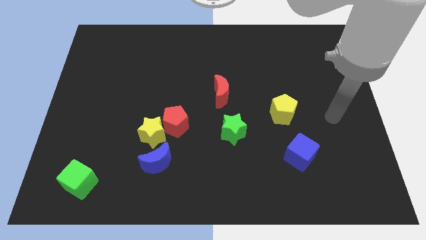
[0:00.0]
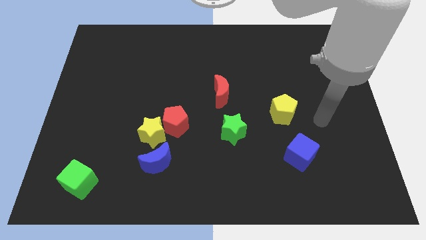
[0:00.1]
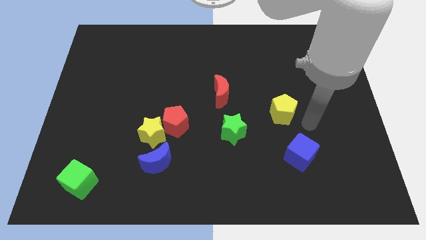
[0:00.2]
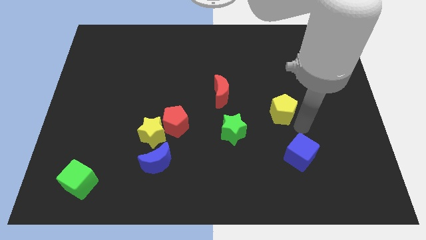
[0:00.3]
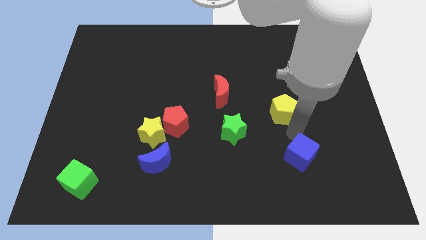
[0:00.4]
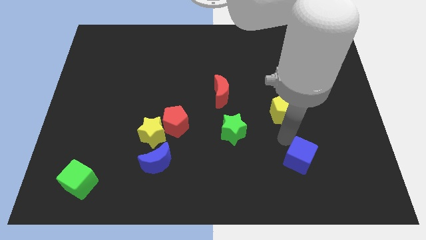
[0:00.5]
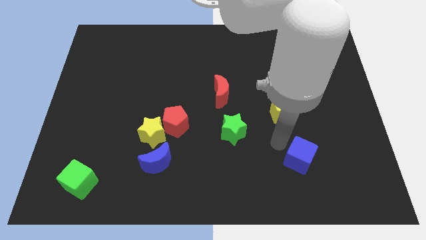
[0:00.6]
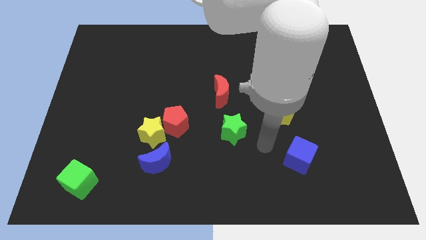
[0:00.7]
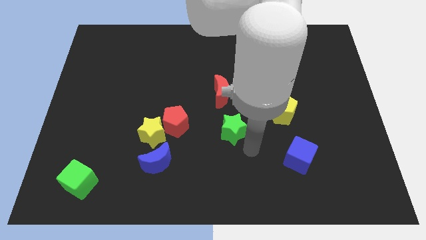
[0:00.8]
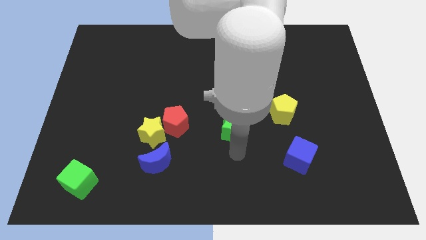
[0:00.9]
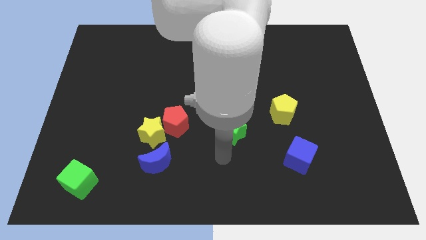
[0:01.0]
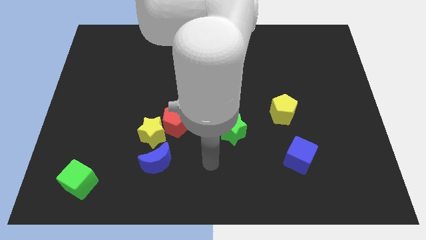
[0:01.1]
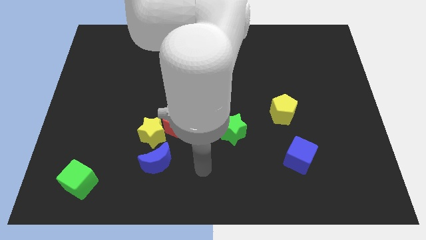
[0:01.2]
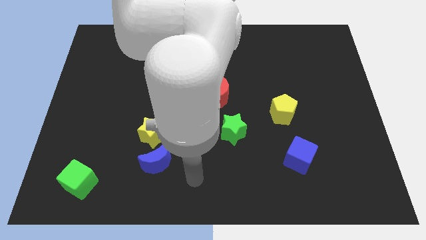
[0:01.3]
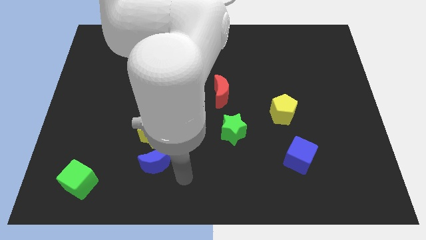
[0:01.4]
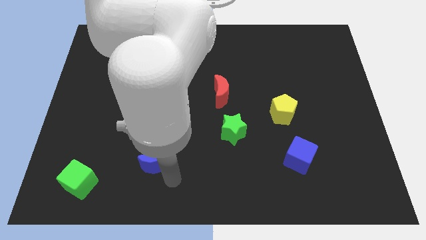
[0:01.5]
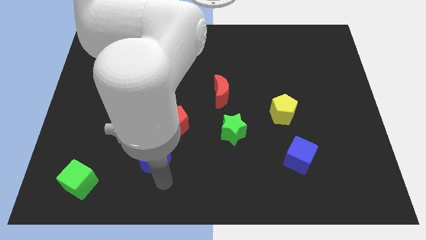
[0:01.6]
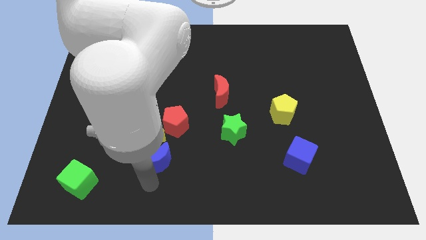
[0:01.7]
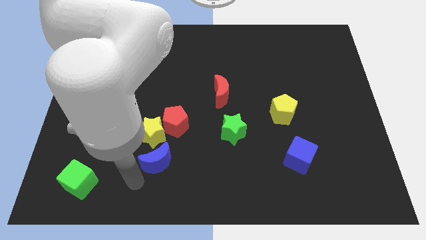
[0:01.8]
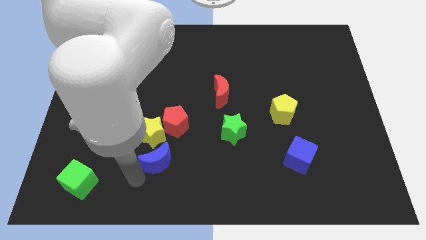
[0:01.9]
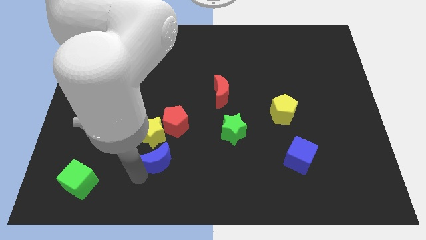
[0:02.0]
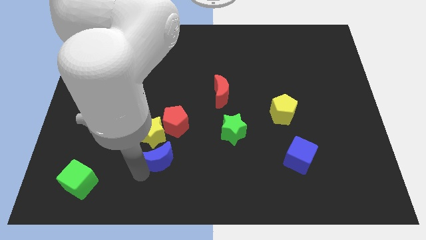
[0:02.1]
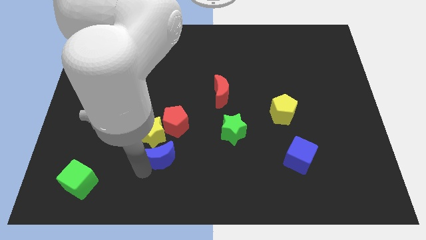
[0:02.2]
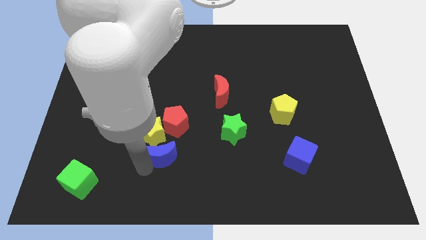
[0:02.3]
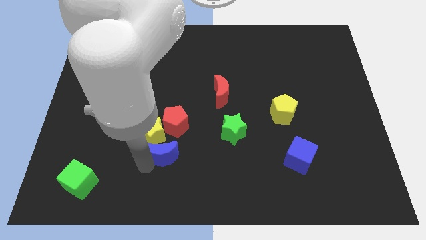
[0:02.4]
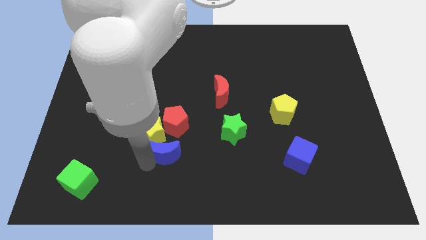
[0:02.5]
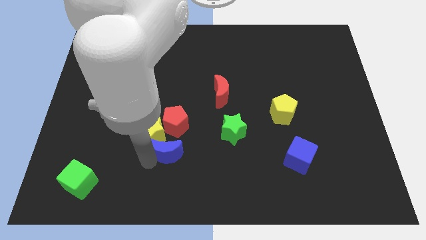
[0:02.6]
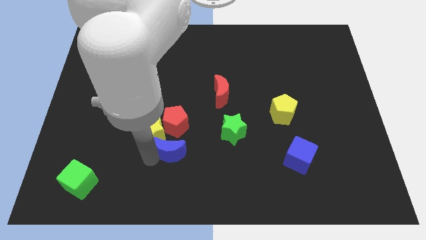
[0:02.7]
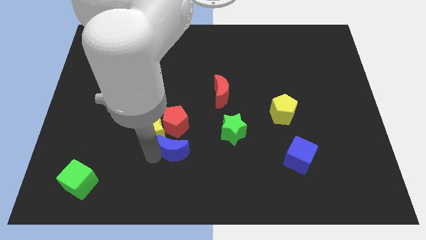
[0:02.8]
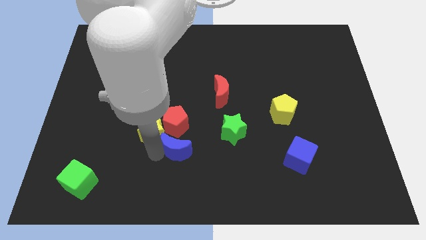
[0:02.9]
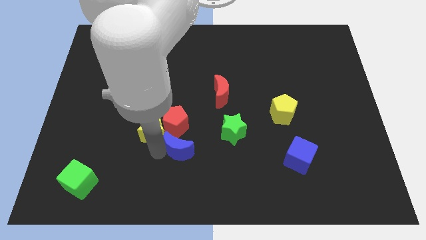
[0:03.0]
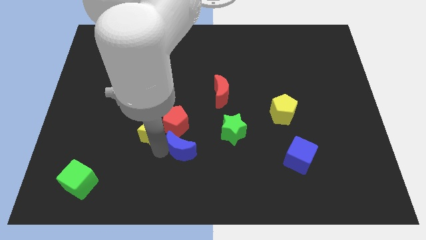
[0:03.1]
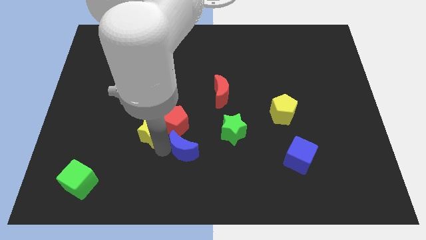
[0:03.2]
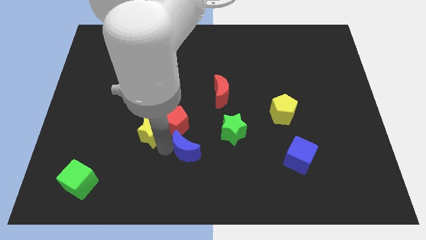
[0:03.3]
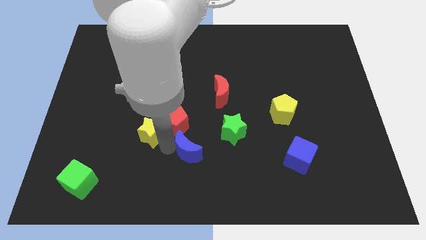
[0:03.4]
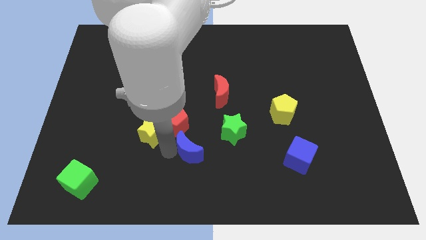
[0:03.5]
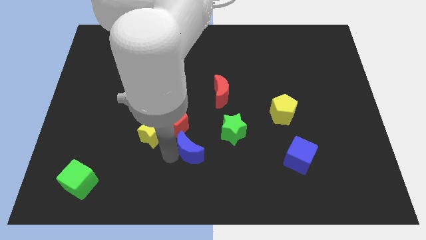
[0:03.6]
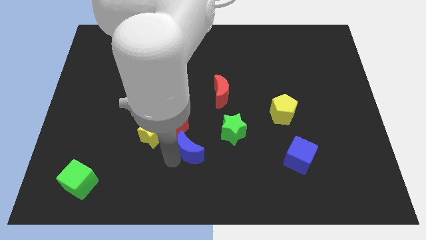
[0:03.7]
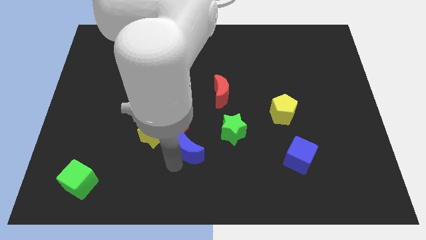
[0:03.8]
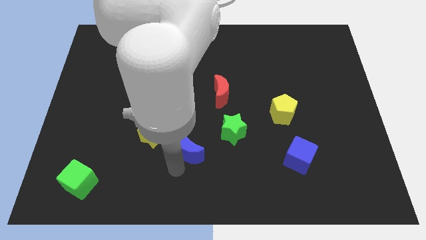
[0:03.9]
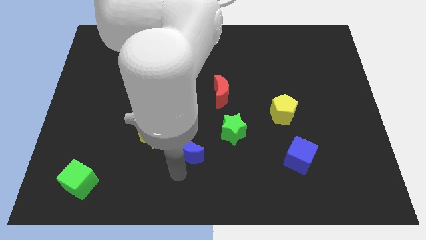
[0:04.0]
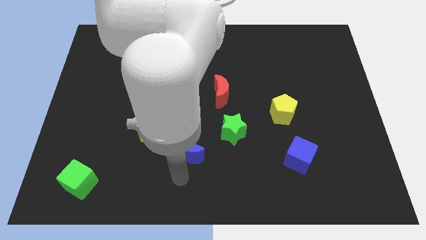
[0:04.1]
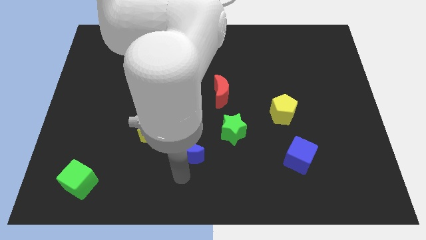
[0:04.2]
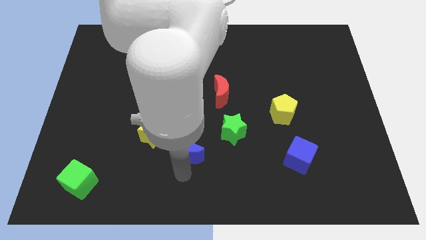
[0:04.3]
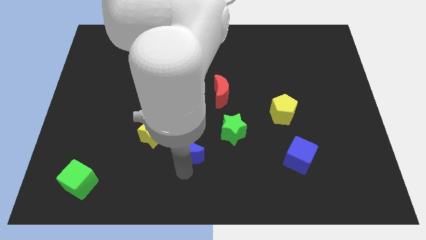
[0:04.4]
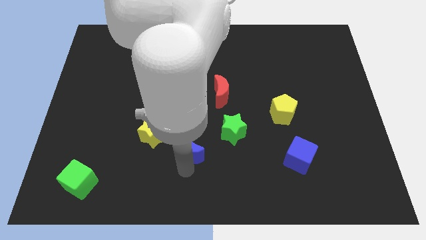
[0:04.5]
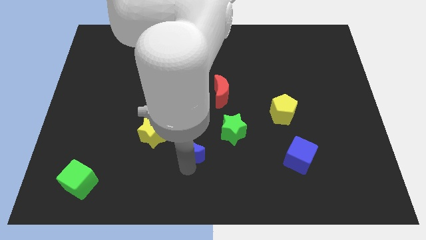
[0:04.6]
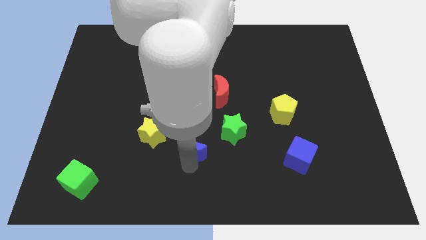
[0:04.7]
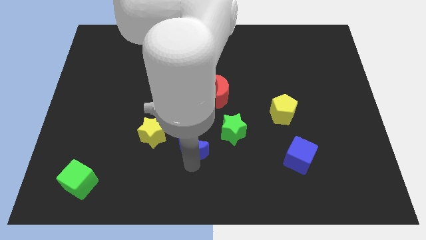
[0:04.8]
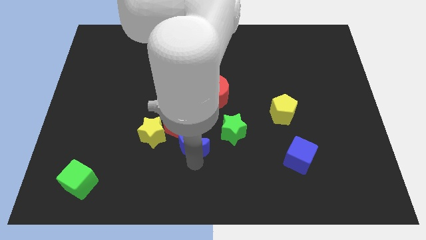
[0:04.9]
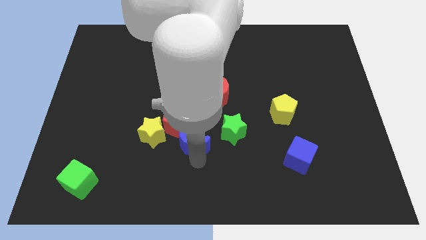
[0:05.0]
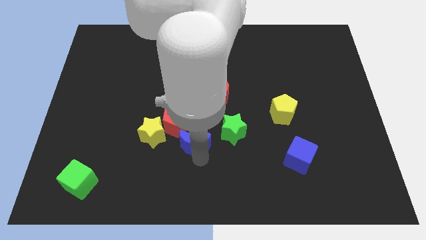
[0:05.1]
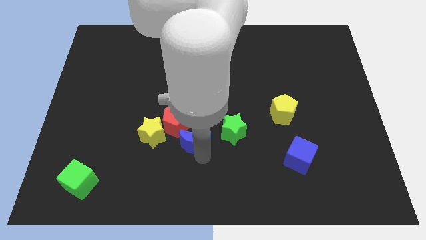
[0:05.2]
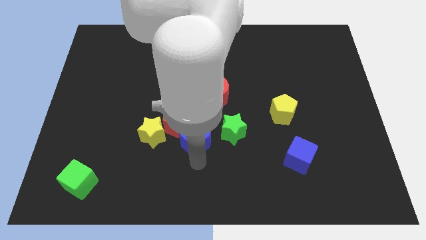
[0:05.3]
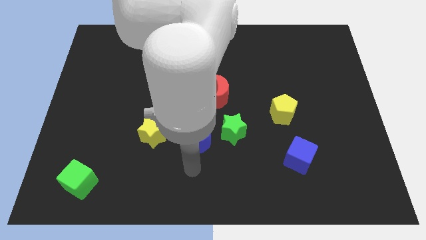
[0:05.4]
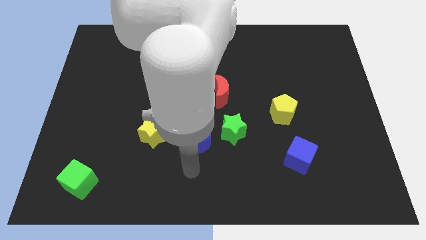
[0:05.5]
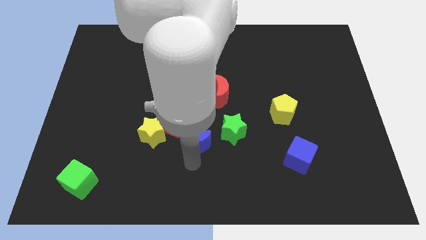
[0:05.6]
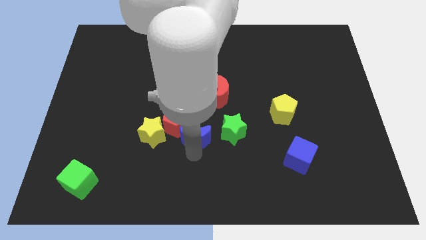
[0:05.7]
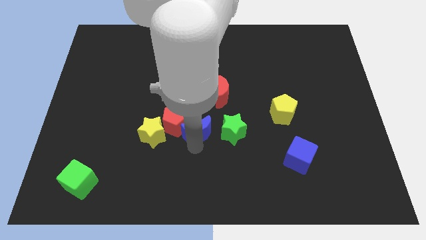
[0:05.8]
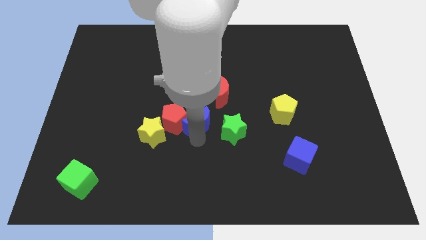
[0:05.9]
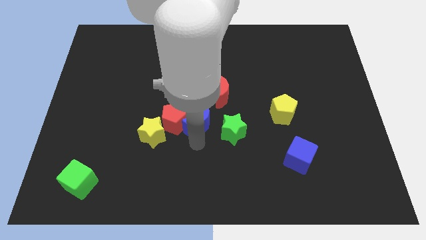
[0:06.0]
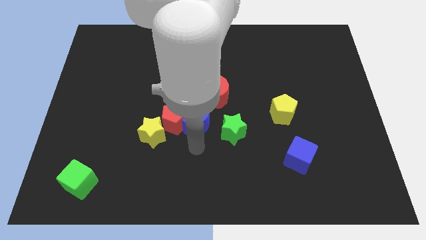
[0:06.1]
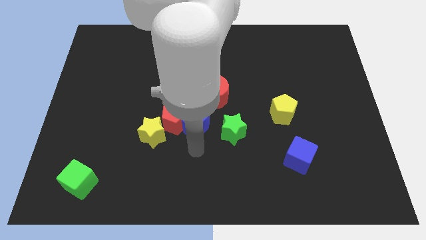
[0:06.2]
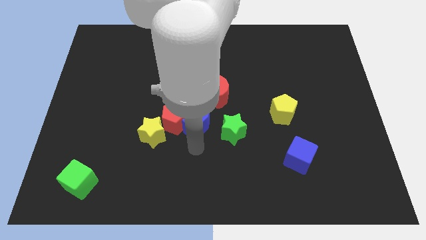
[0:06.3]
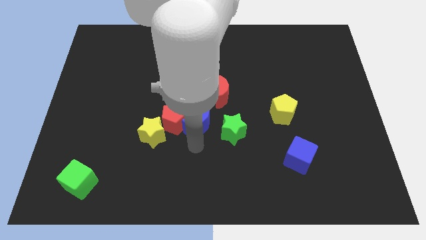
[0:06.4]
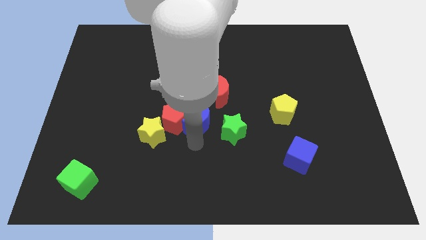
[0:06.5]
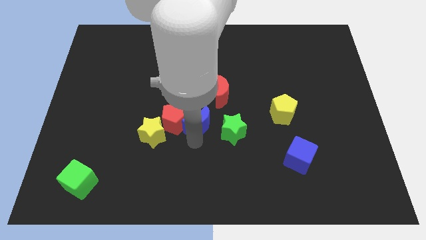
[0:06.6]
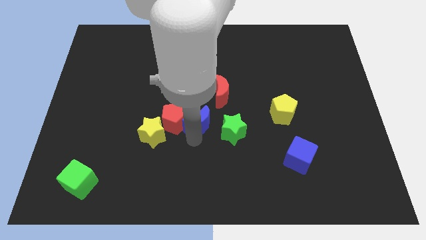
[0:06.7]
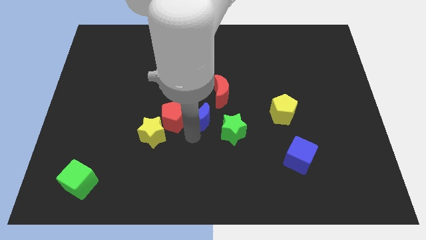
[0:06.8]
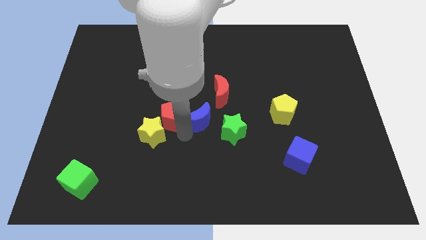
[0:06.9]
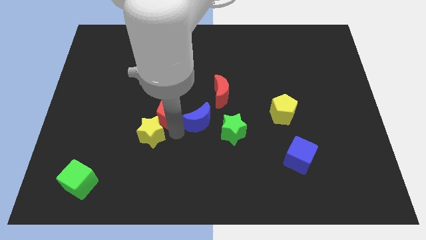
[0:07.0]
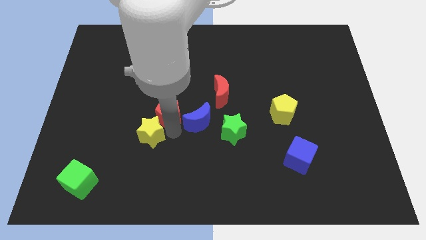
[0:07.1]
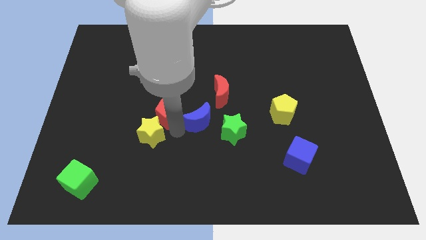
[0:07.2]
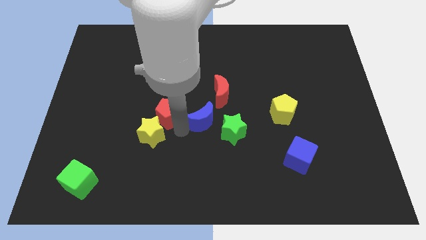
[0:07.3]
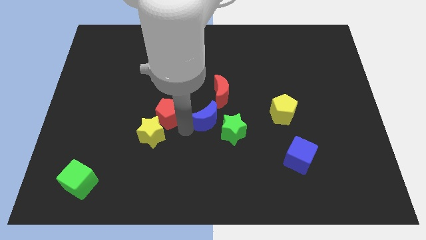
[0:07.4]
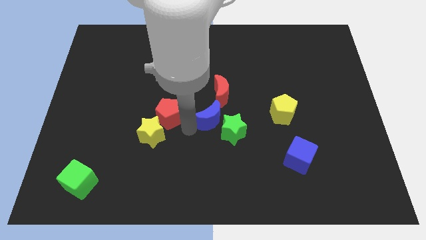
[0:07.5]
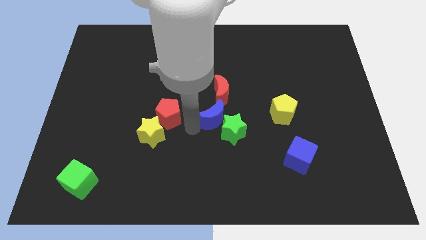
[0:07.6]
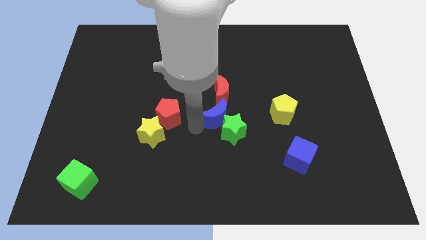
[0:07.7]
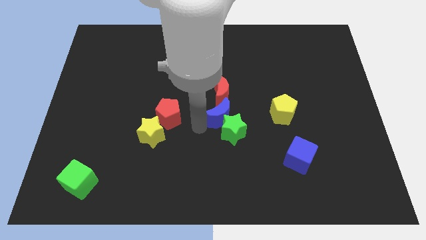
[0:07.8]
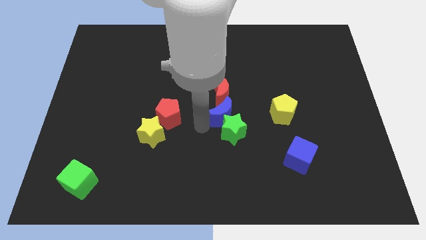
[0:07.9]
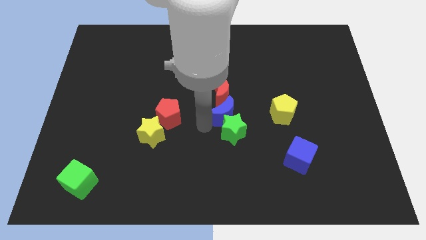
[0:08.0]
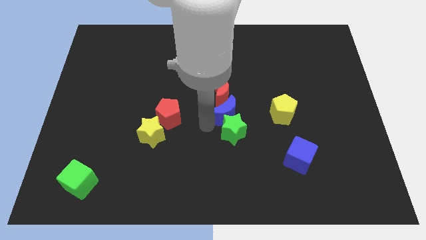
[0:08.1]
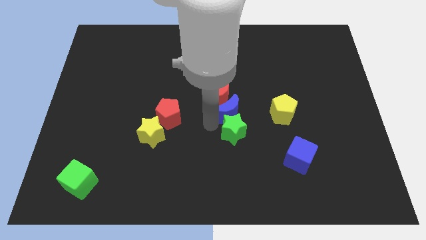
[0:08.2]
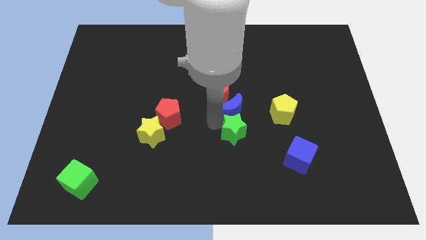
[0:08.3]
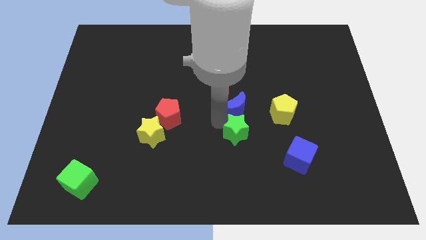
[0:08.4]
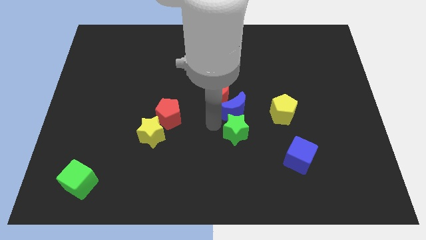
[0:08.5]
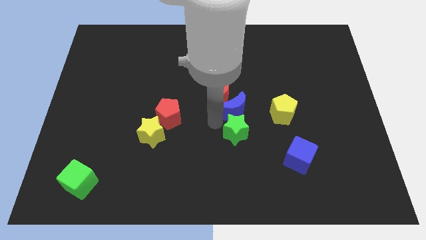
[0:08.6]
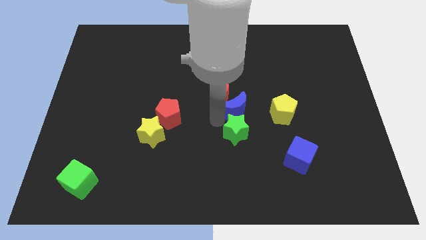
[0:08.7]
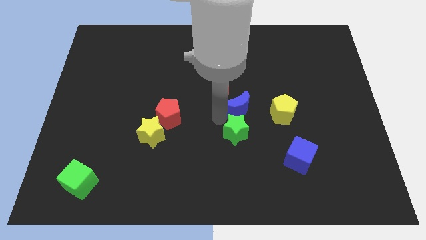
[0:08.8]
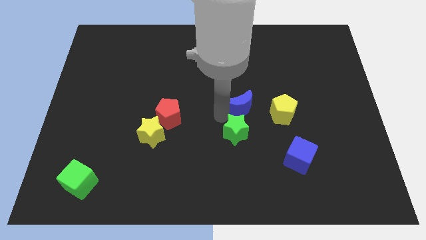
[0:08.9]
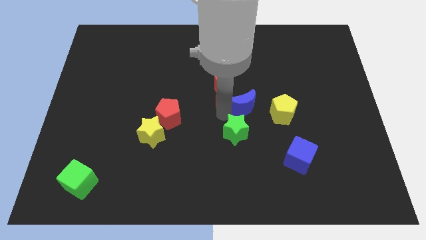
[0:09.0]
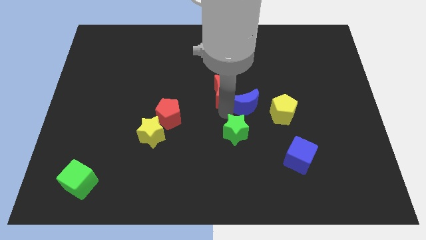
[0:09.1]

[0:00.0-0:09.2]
slide the blue moon diagonally up and to the left of the yellow pentagon
